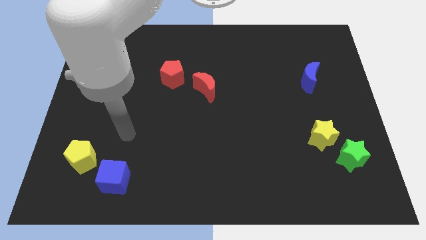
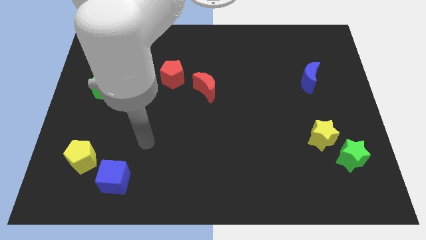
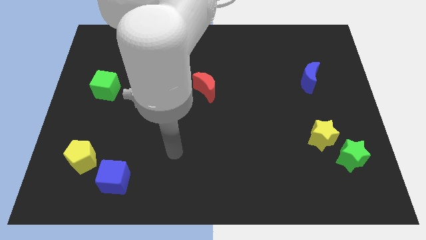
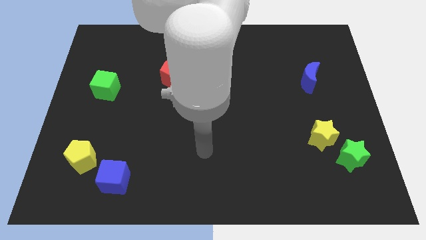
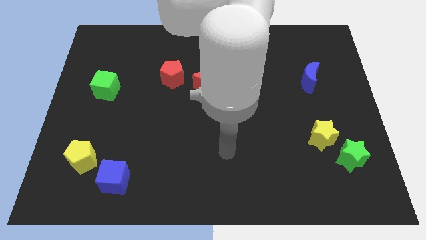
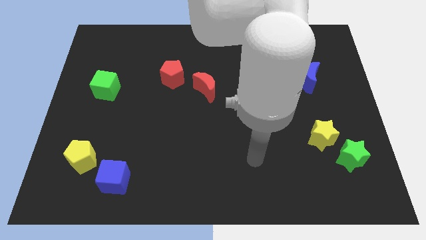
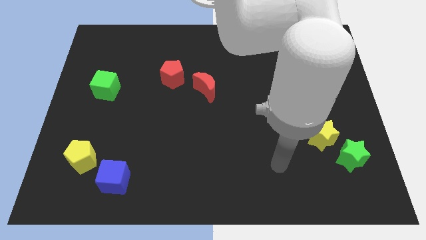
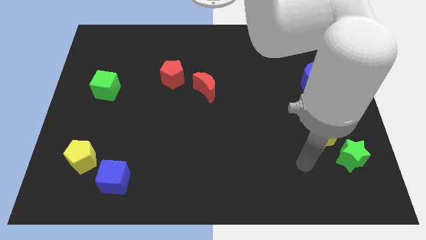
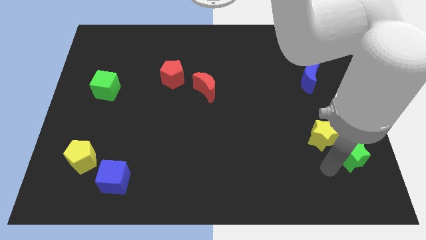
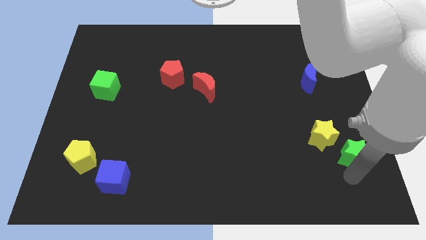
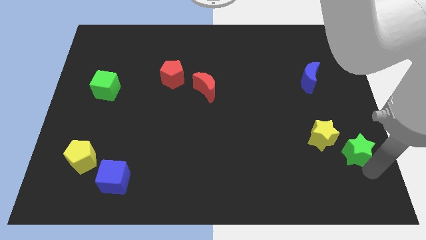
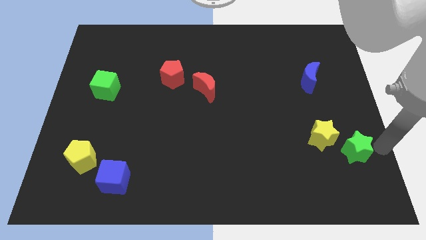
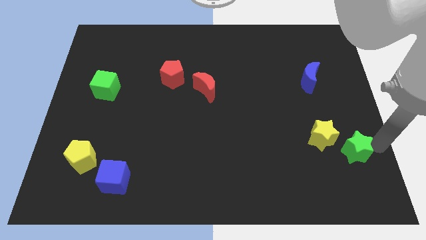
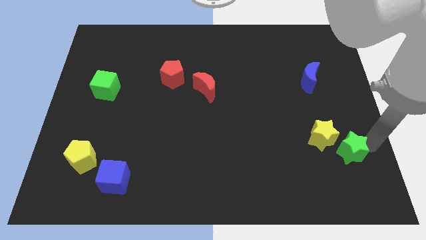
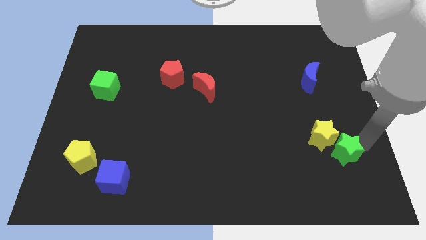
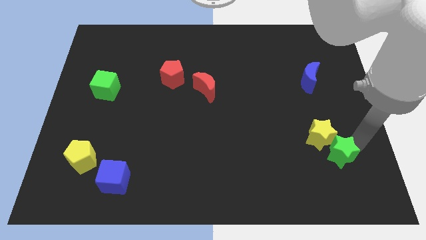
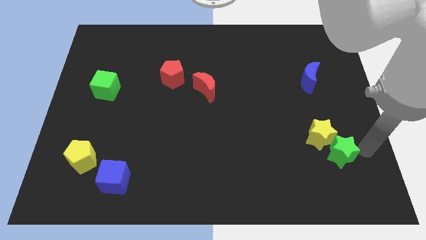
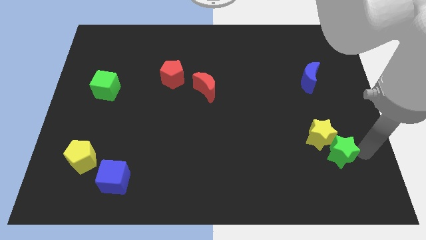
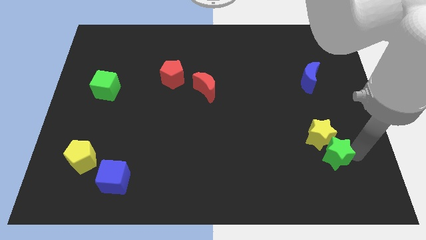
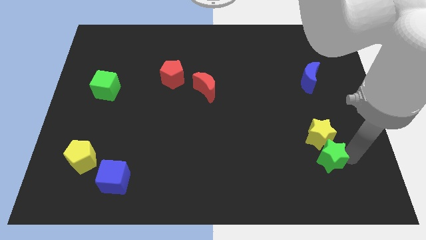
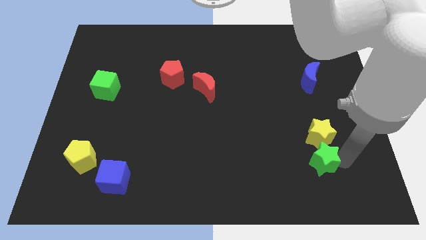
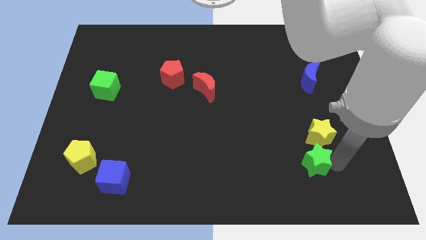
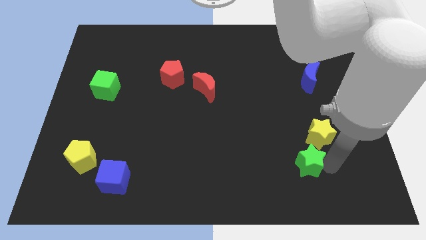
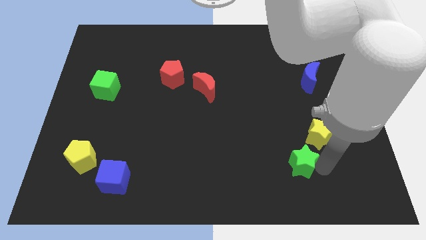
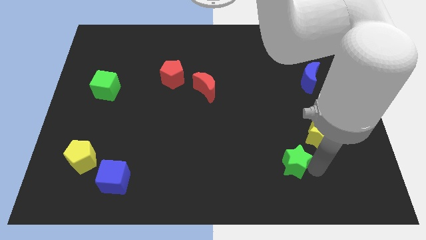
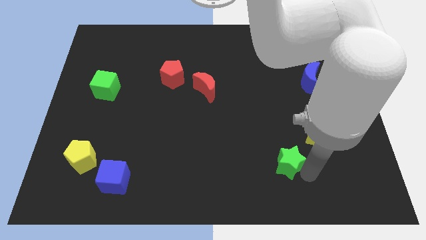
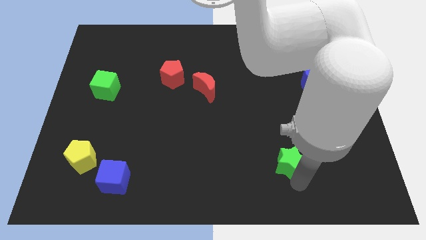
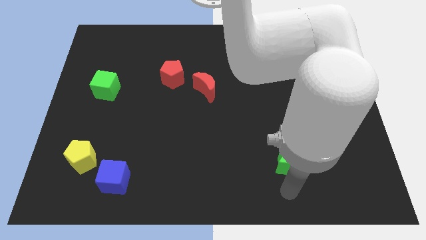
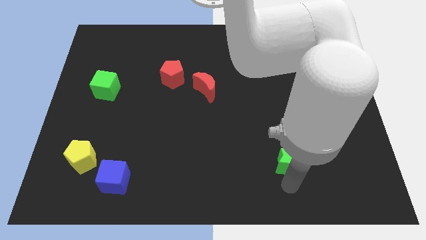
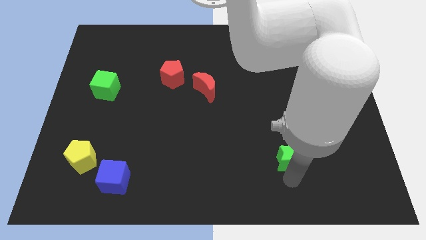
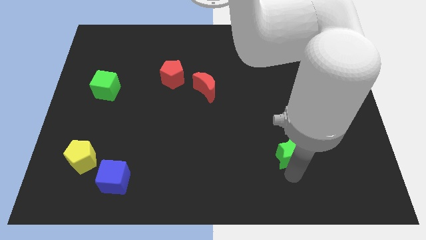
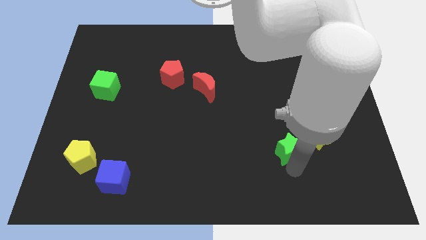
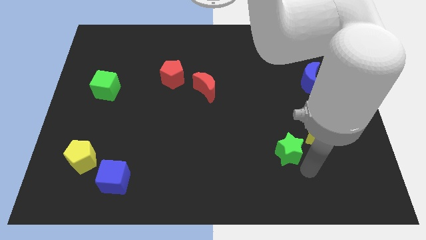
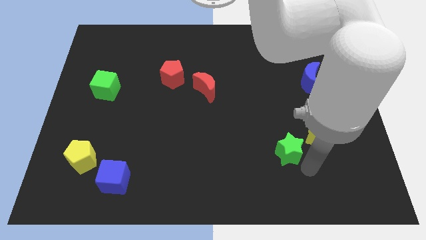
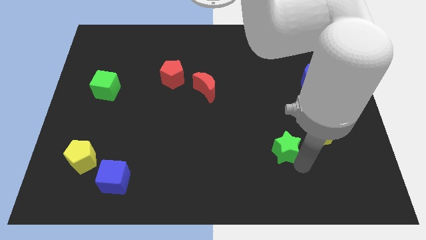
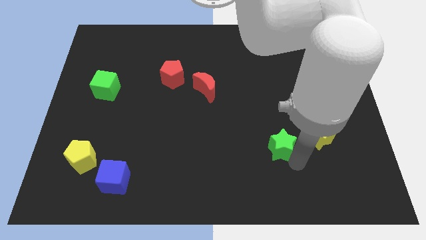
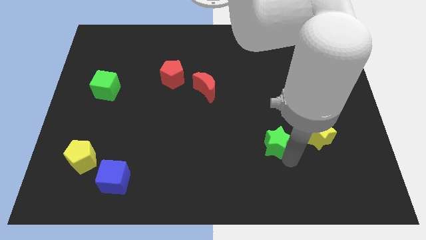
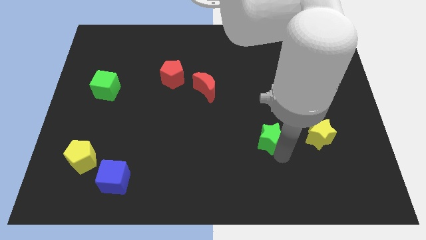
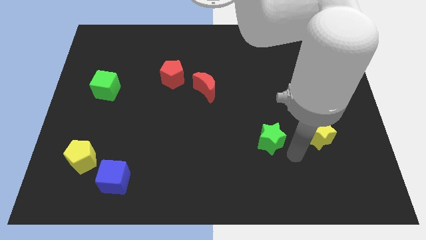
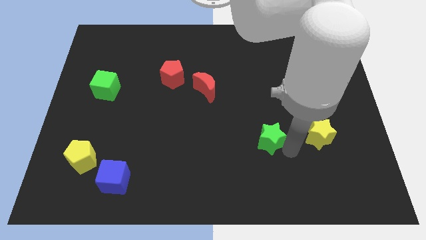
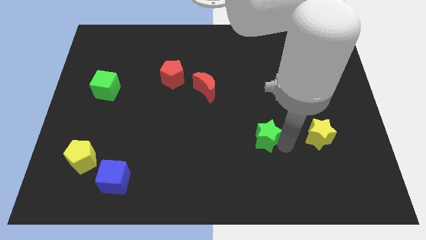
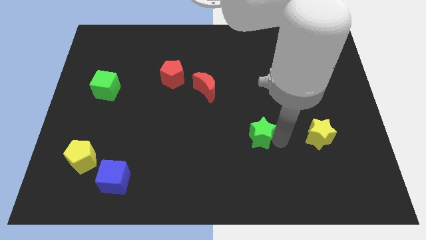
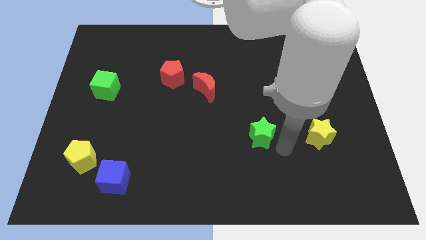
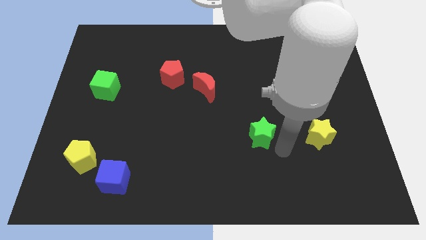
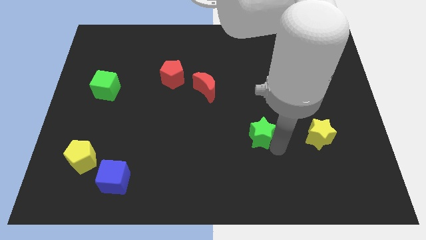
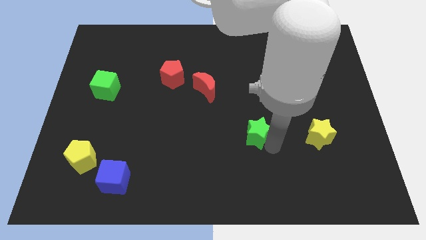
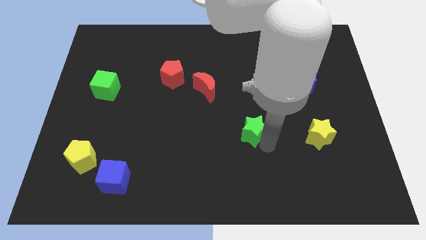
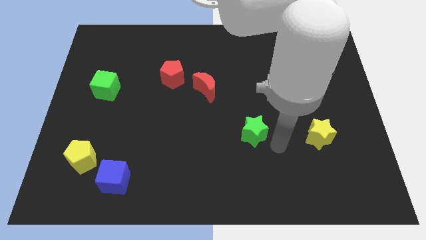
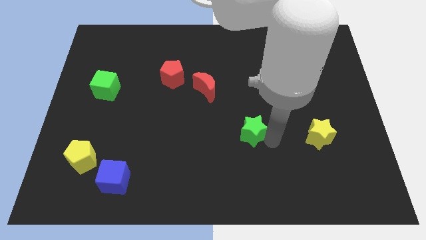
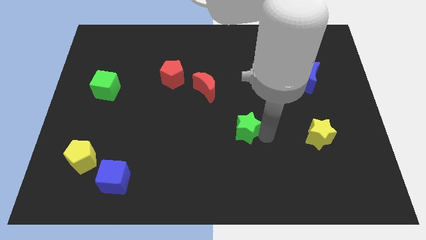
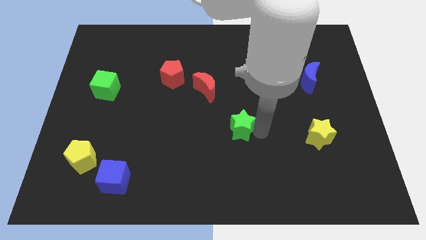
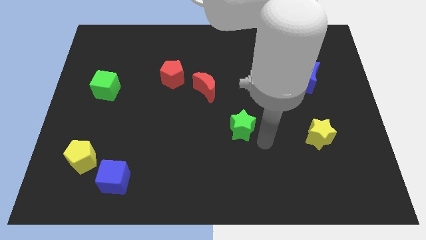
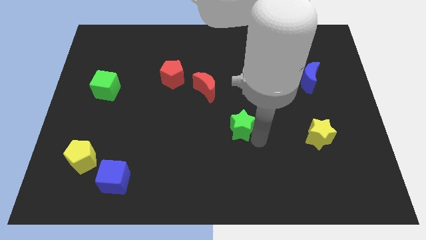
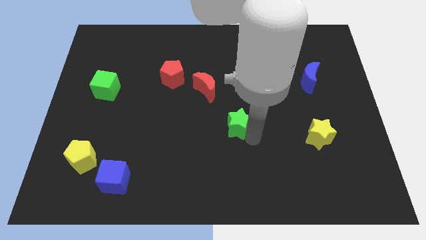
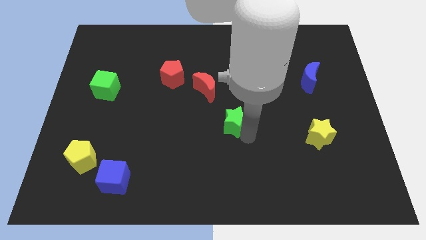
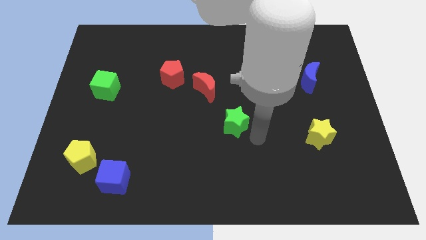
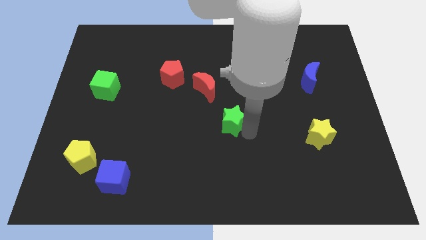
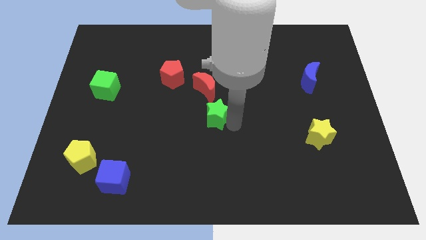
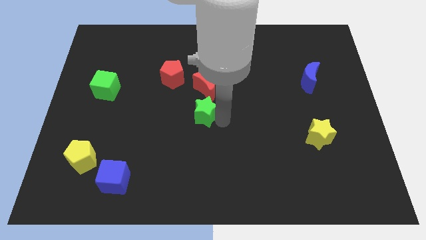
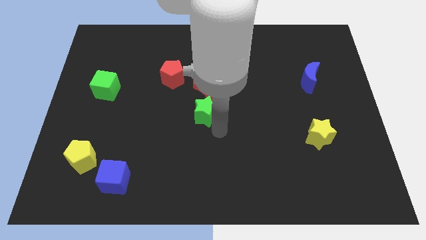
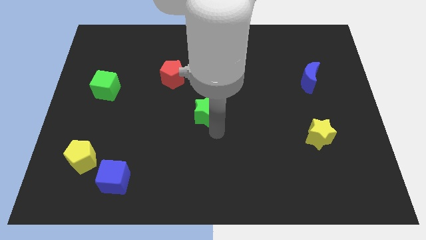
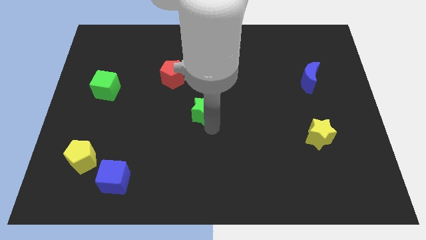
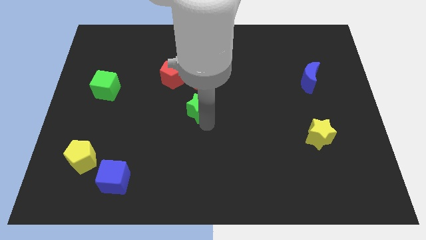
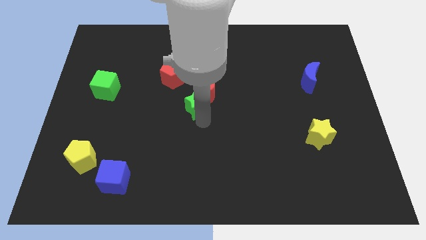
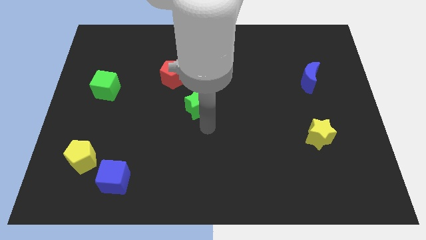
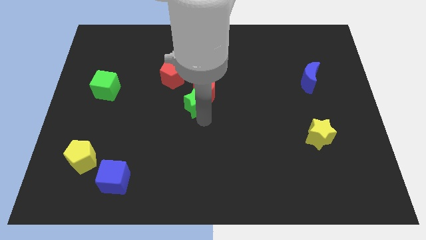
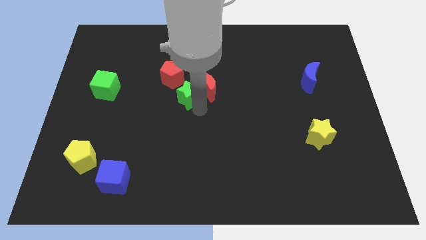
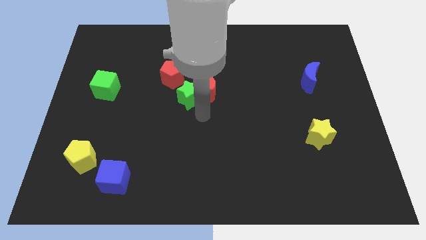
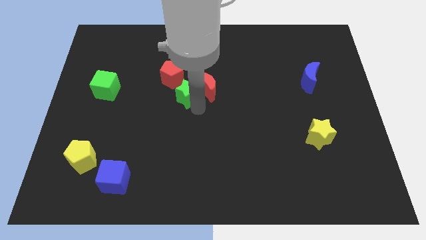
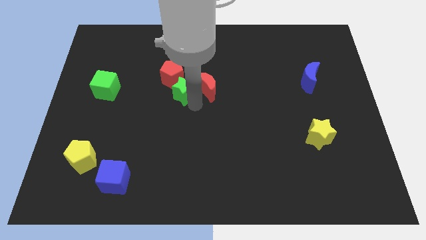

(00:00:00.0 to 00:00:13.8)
push the green star next to the red pentagon

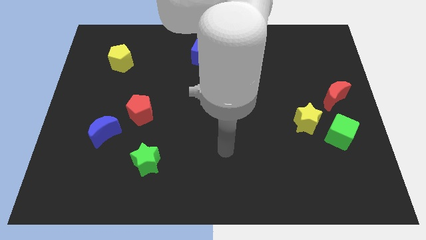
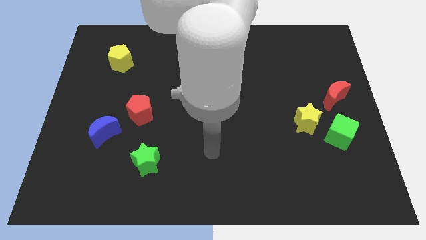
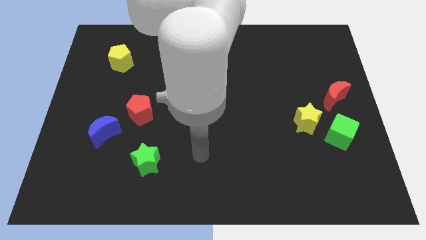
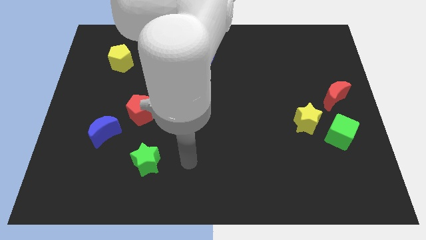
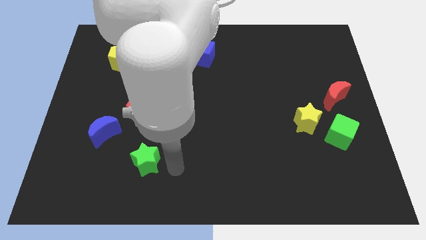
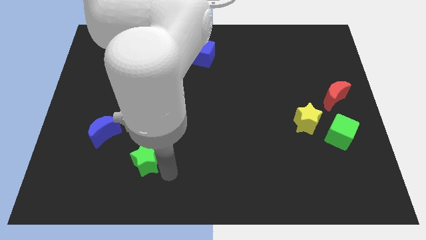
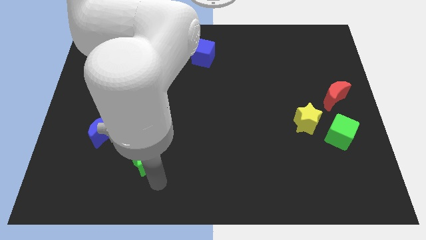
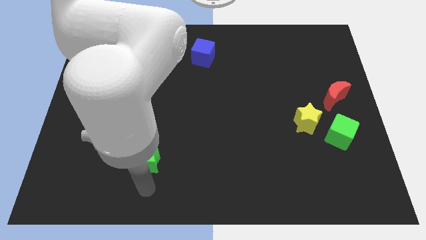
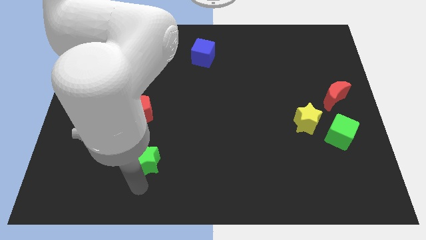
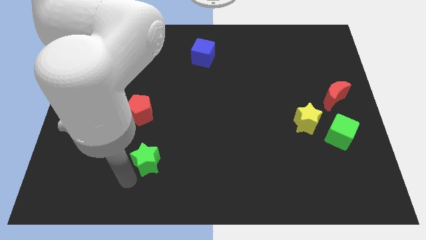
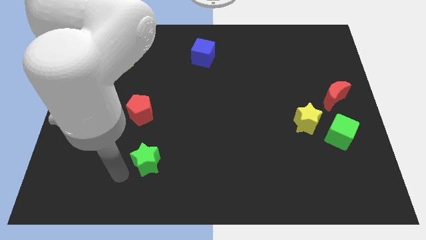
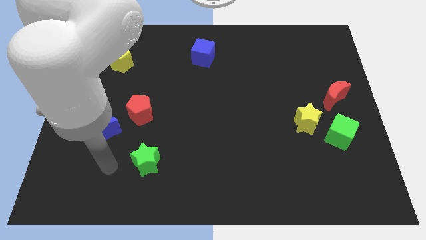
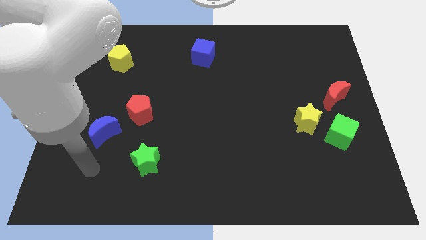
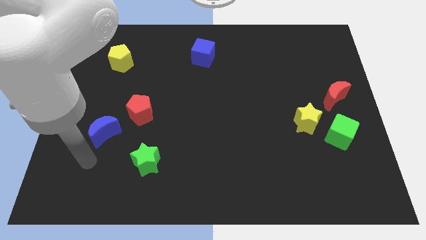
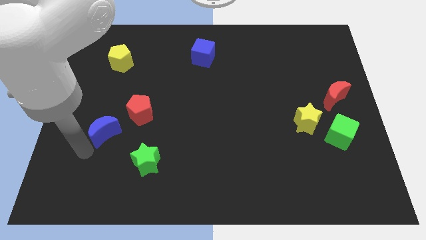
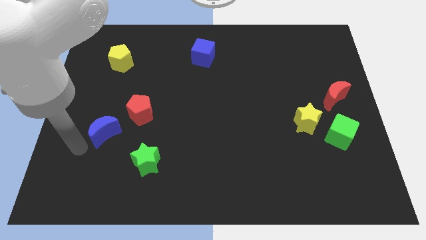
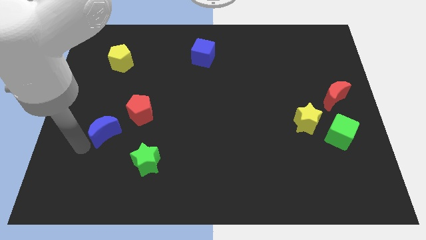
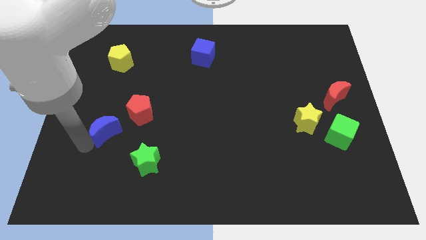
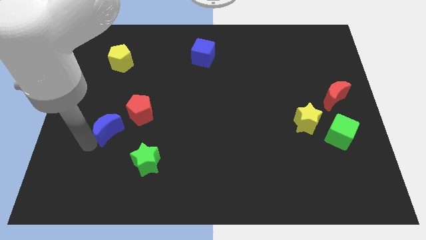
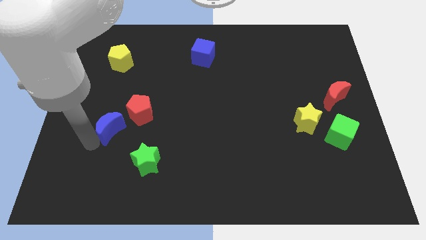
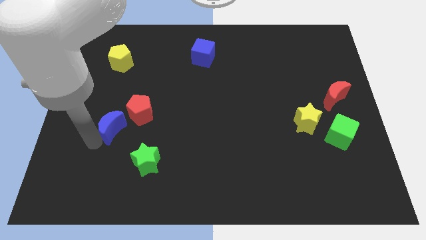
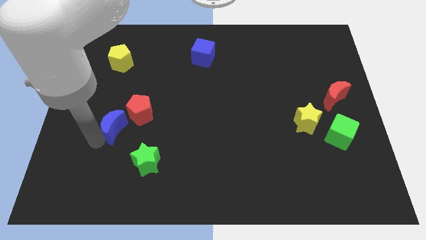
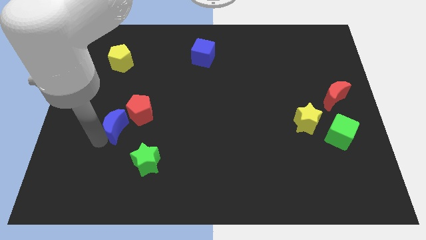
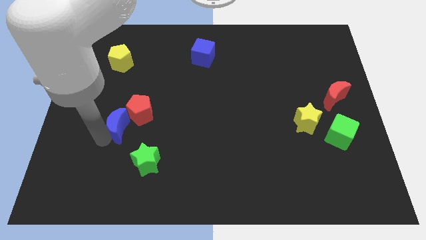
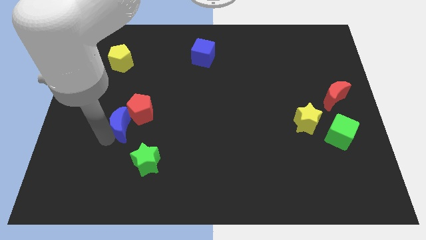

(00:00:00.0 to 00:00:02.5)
put the blue moon towards the red pentagon
